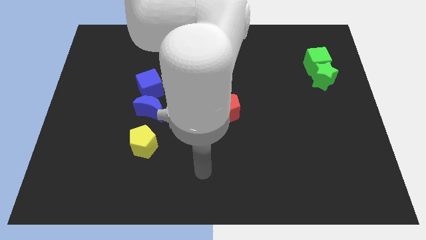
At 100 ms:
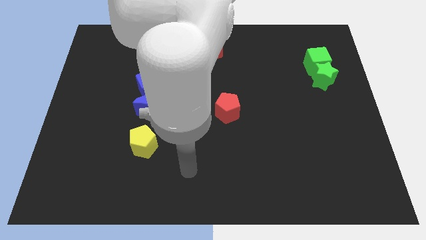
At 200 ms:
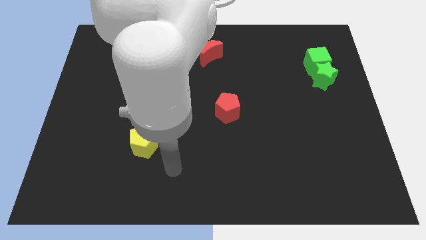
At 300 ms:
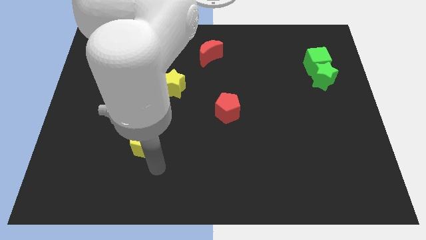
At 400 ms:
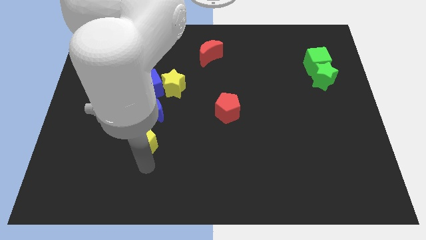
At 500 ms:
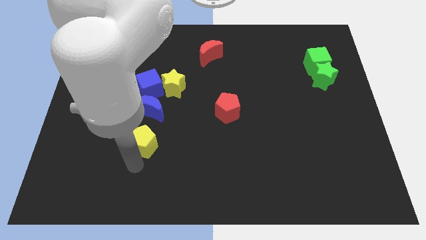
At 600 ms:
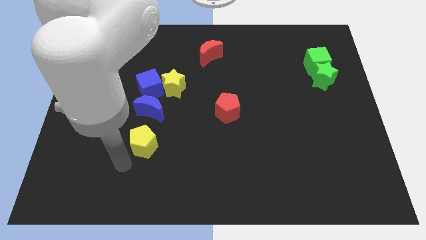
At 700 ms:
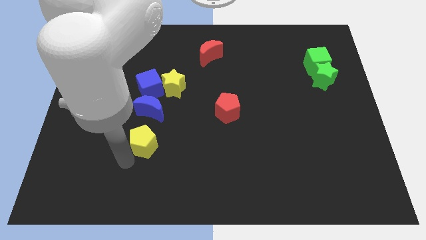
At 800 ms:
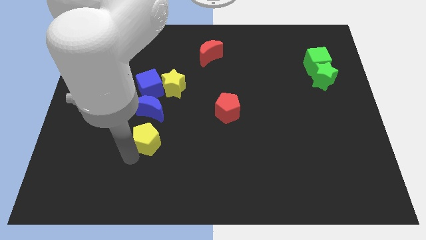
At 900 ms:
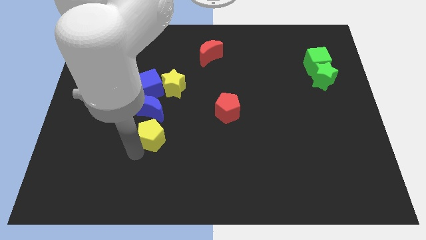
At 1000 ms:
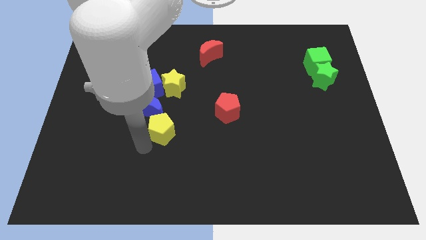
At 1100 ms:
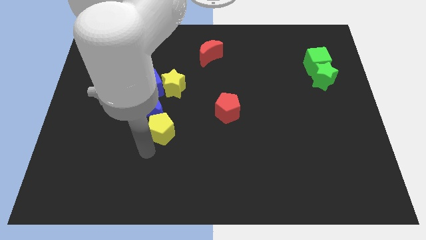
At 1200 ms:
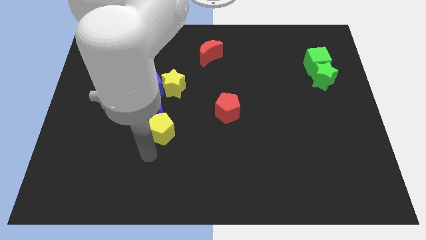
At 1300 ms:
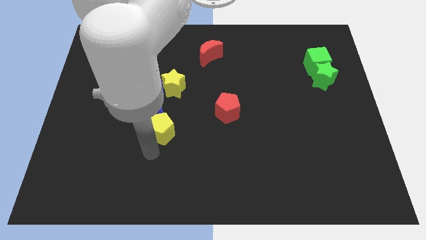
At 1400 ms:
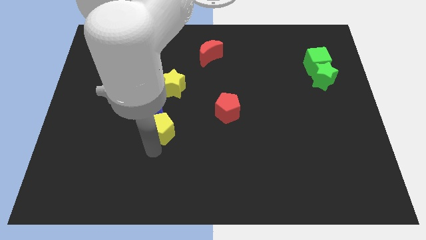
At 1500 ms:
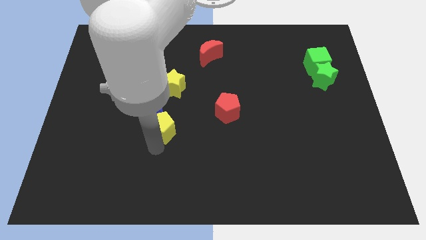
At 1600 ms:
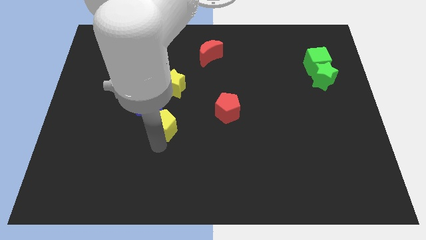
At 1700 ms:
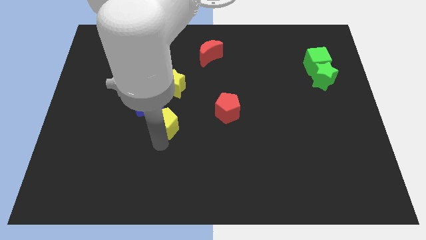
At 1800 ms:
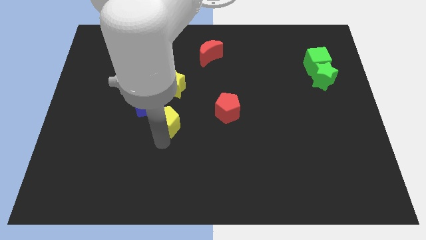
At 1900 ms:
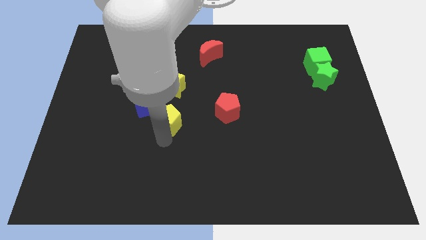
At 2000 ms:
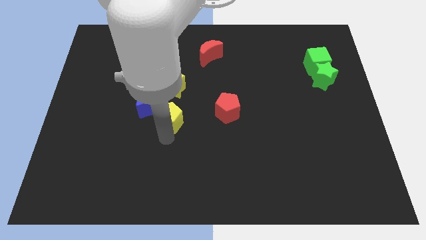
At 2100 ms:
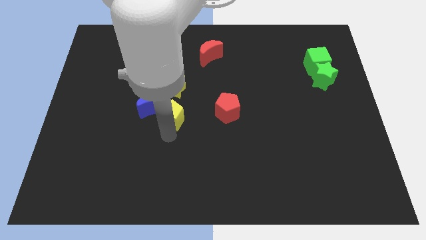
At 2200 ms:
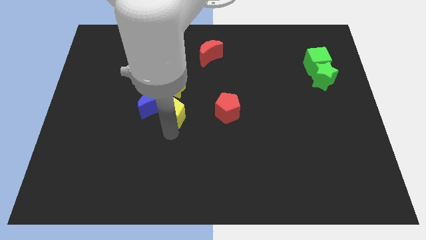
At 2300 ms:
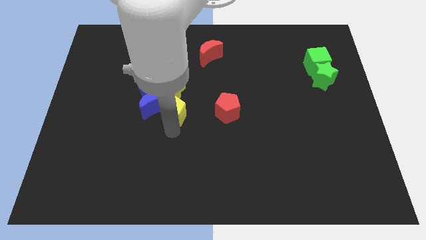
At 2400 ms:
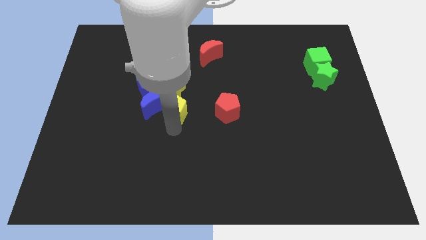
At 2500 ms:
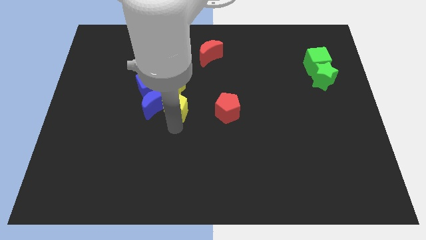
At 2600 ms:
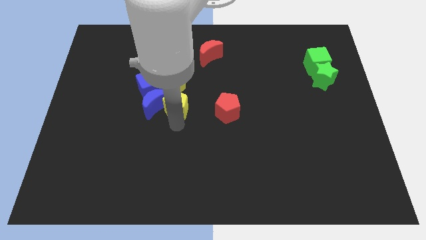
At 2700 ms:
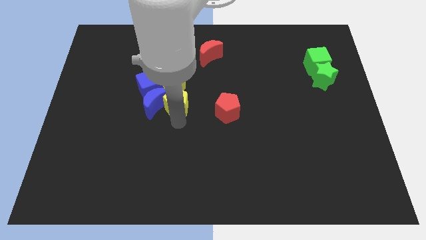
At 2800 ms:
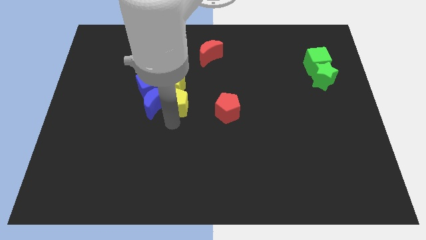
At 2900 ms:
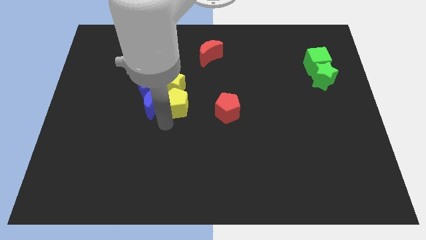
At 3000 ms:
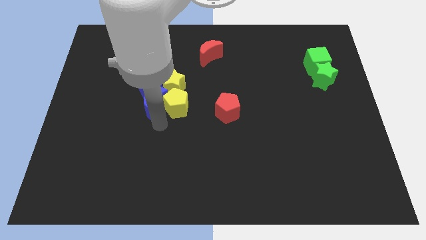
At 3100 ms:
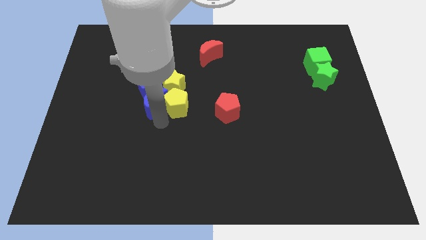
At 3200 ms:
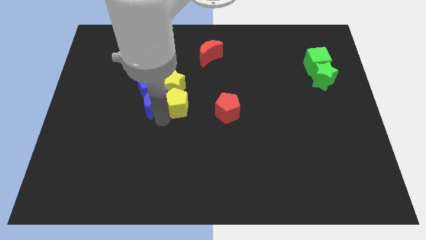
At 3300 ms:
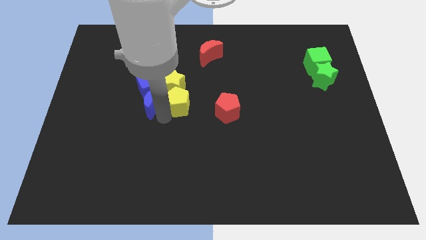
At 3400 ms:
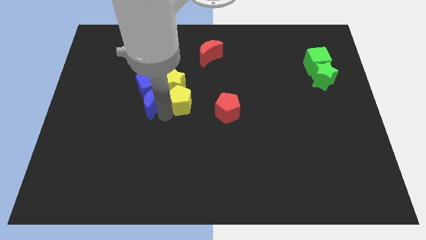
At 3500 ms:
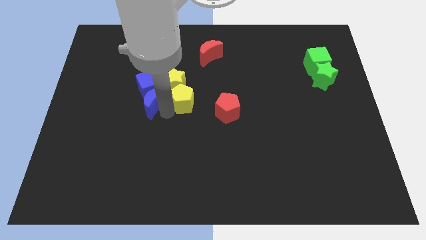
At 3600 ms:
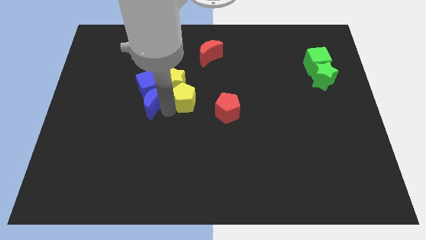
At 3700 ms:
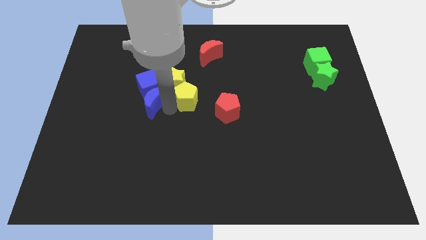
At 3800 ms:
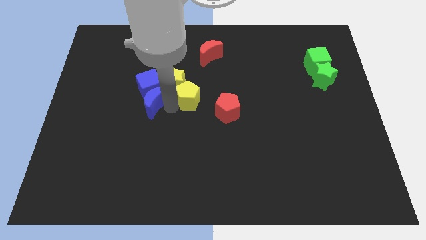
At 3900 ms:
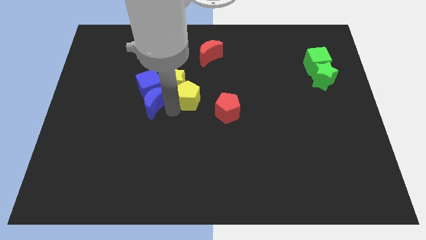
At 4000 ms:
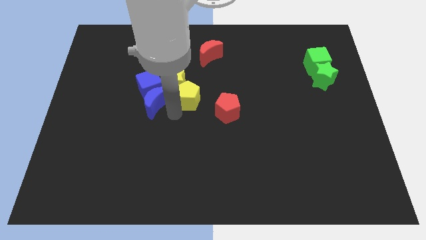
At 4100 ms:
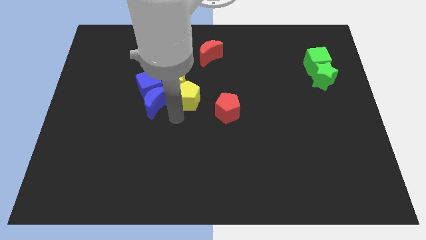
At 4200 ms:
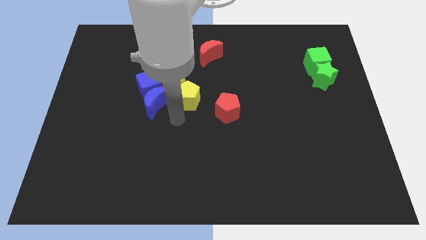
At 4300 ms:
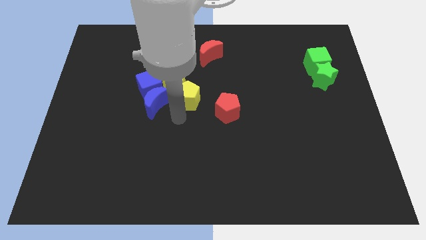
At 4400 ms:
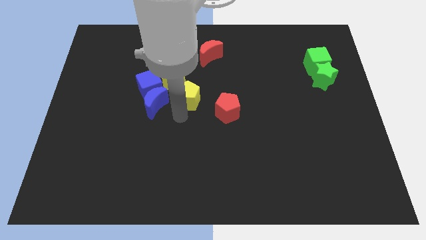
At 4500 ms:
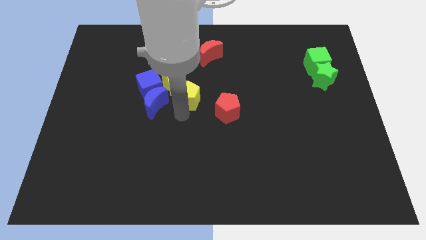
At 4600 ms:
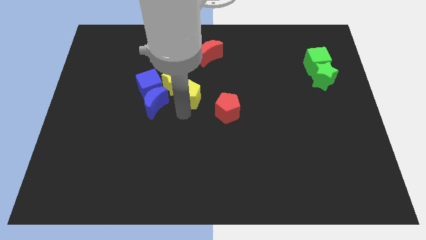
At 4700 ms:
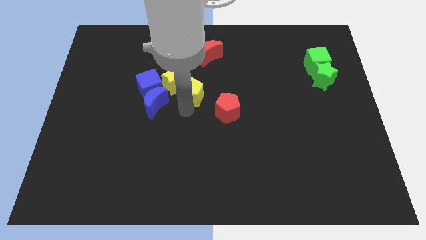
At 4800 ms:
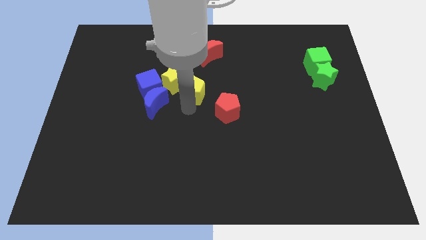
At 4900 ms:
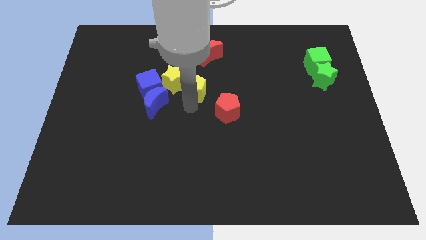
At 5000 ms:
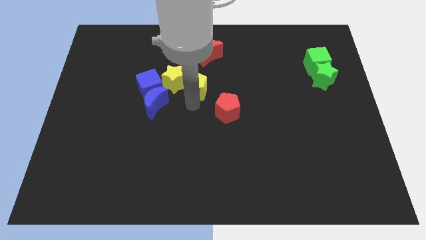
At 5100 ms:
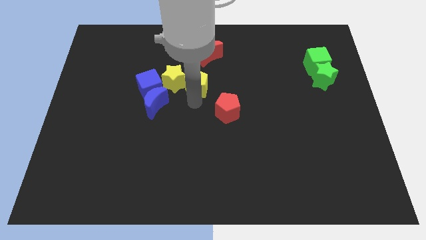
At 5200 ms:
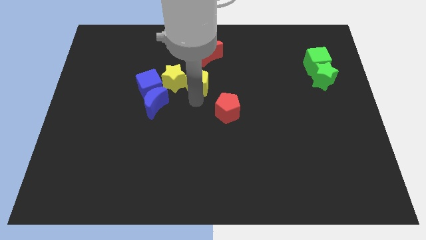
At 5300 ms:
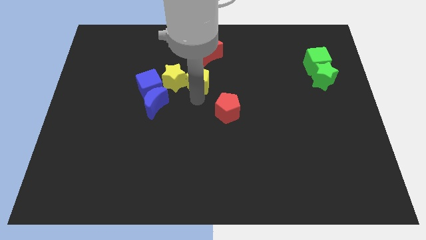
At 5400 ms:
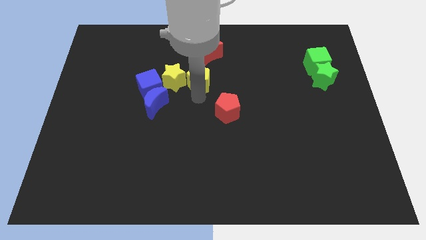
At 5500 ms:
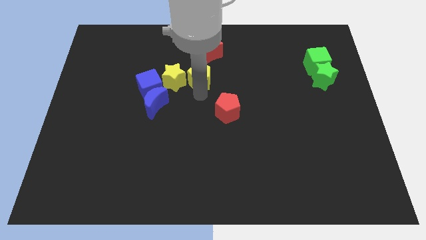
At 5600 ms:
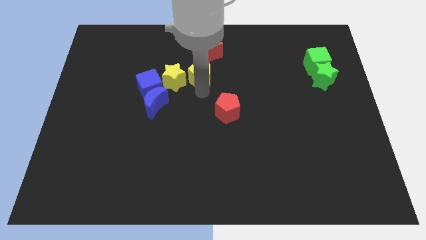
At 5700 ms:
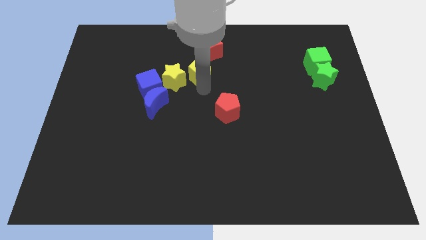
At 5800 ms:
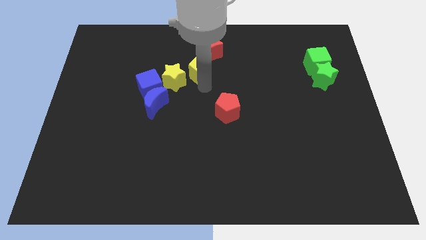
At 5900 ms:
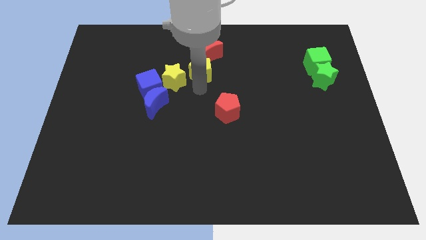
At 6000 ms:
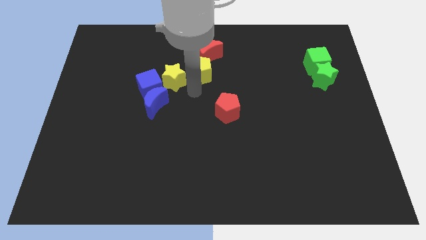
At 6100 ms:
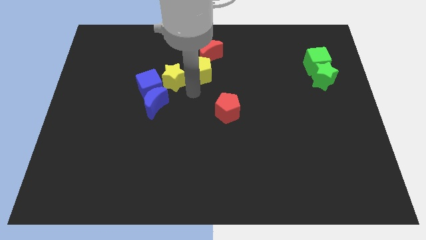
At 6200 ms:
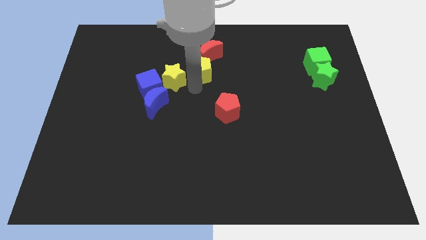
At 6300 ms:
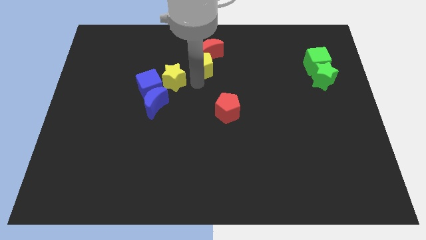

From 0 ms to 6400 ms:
move the yellow pentagon to the red moon

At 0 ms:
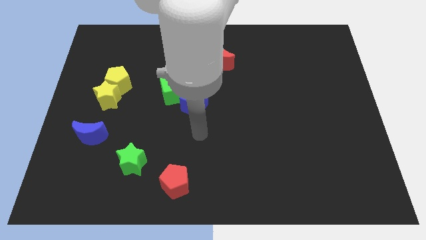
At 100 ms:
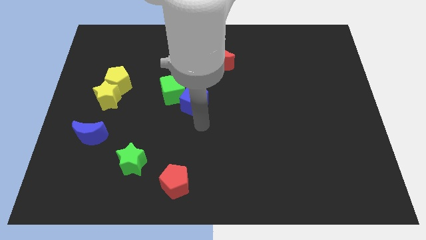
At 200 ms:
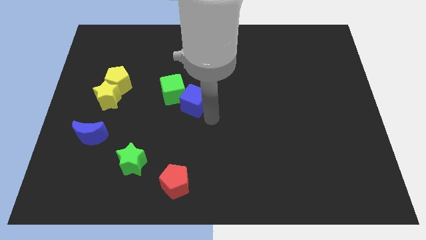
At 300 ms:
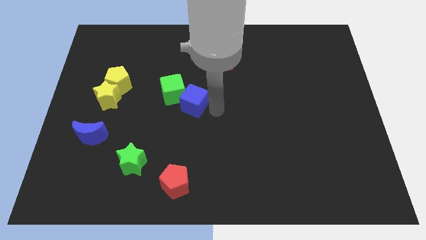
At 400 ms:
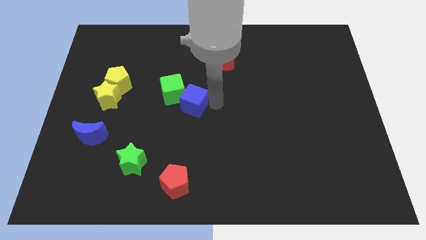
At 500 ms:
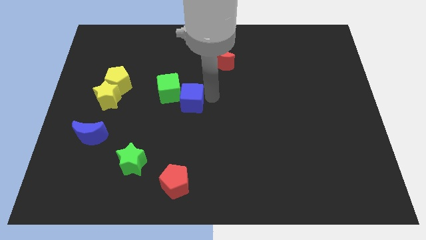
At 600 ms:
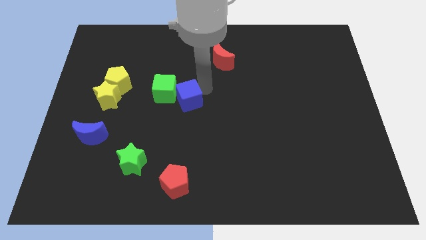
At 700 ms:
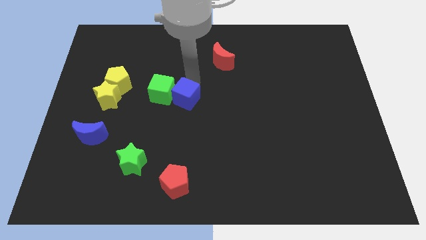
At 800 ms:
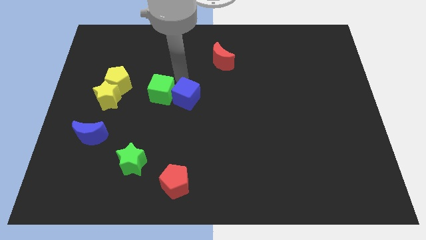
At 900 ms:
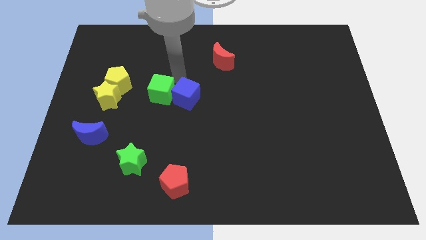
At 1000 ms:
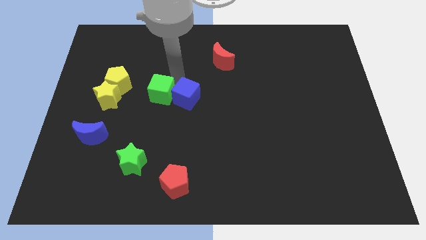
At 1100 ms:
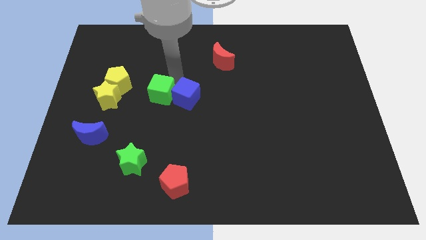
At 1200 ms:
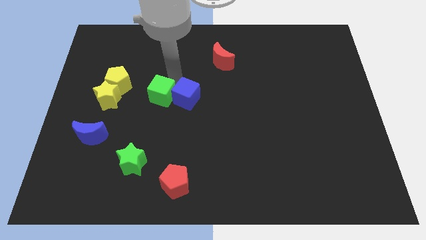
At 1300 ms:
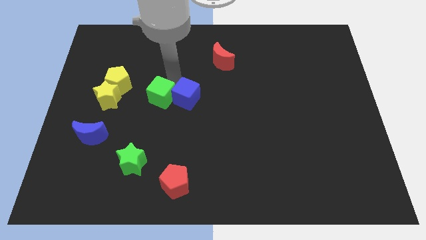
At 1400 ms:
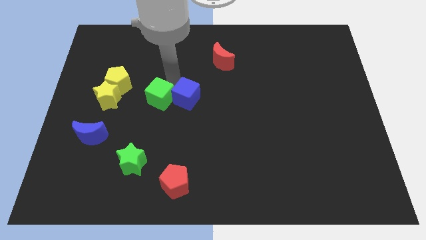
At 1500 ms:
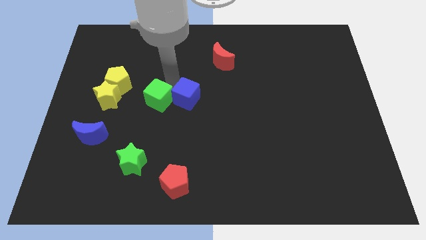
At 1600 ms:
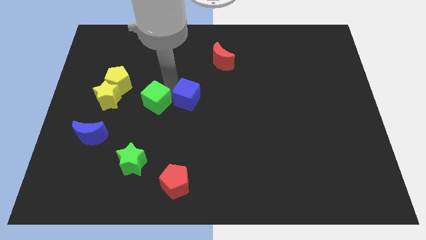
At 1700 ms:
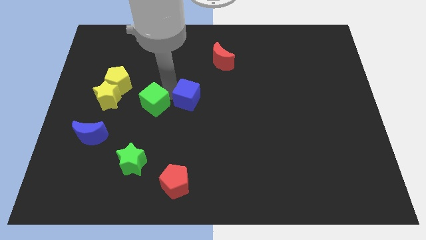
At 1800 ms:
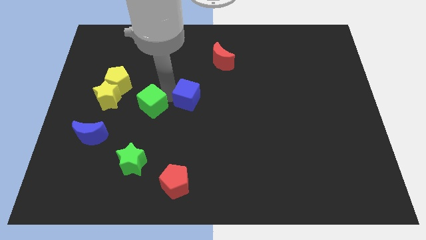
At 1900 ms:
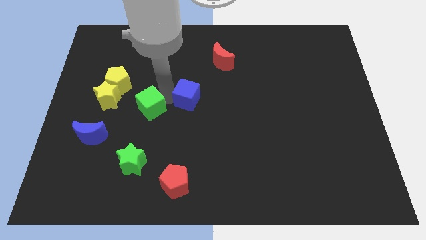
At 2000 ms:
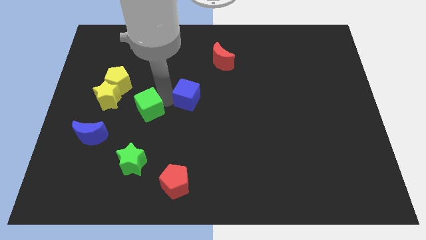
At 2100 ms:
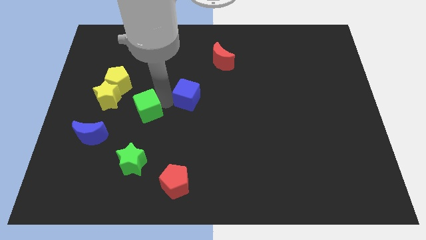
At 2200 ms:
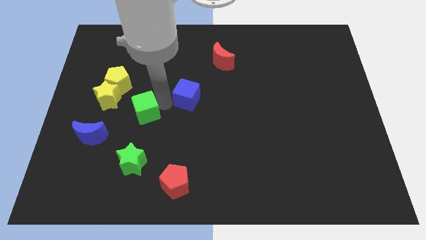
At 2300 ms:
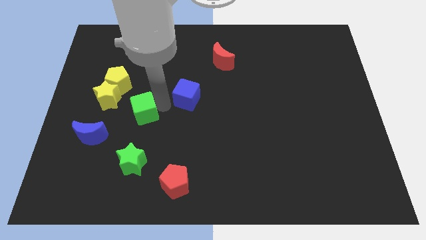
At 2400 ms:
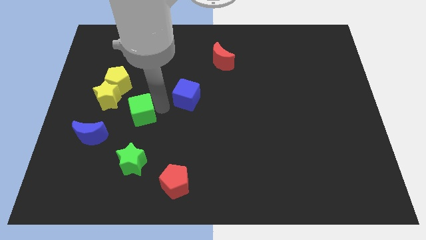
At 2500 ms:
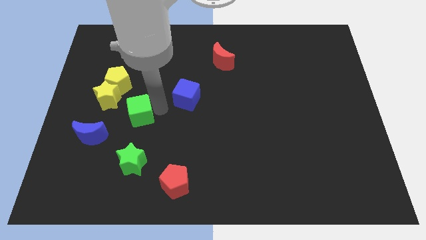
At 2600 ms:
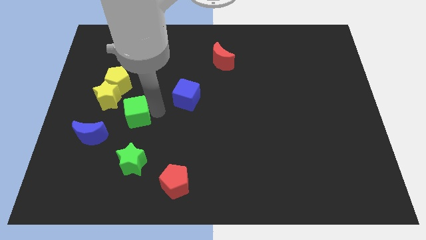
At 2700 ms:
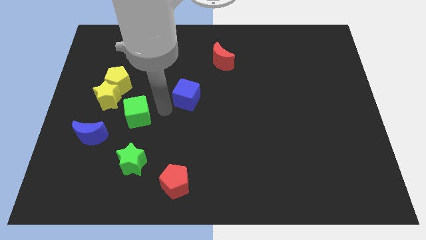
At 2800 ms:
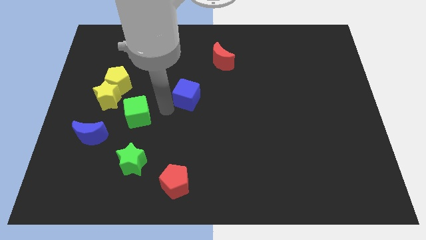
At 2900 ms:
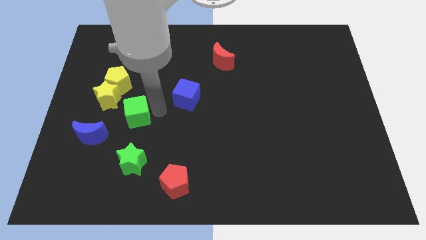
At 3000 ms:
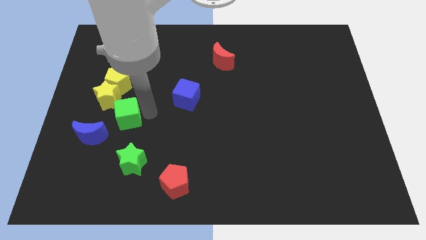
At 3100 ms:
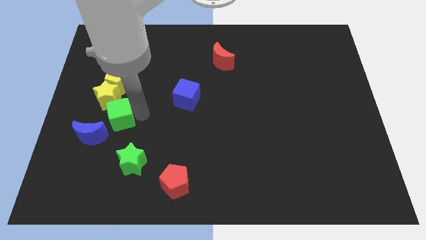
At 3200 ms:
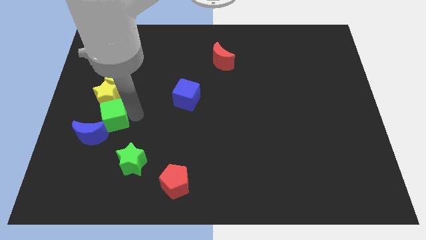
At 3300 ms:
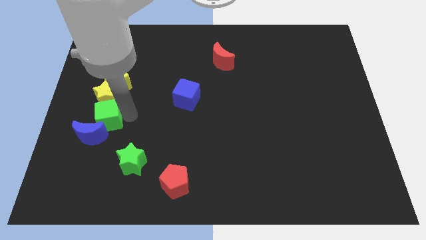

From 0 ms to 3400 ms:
push the green cube next to the blue moon
